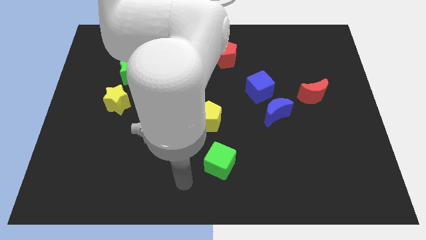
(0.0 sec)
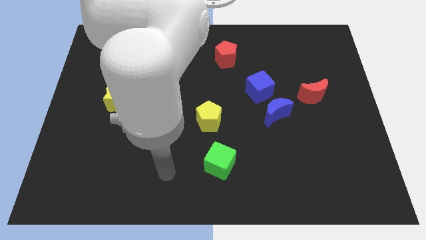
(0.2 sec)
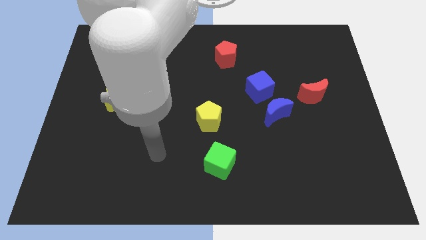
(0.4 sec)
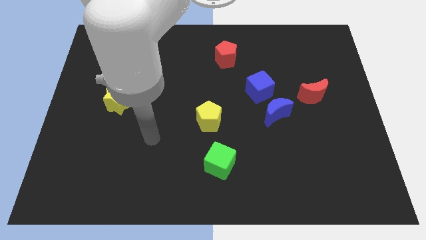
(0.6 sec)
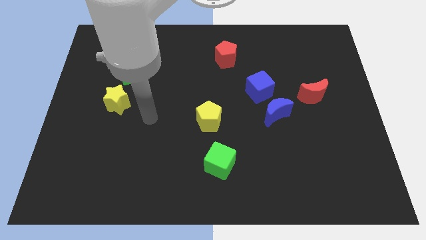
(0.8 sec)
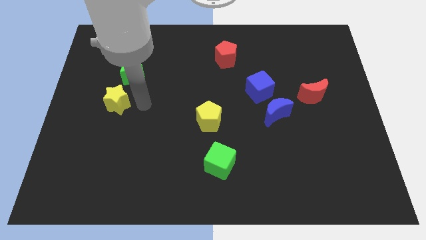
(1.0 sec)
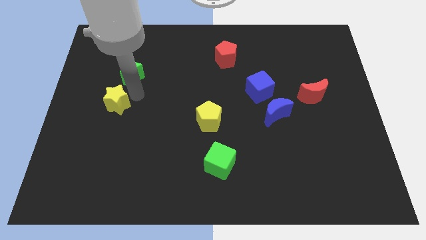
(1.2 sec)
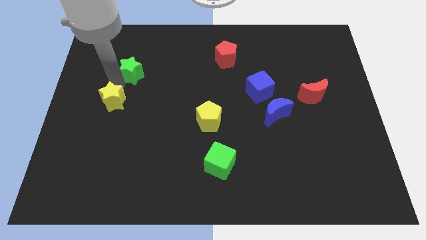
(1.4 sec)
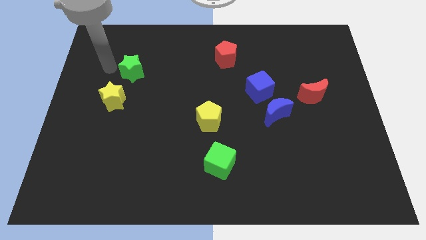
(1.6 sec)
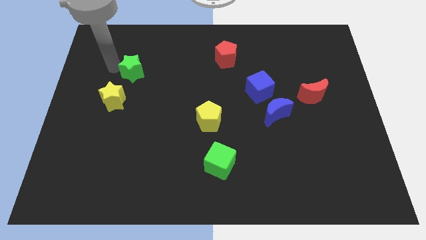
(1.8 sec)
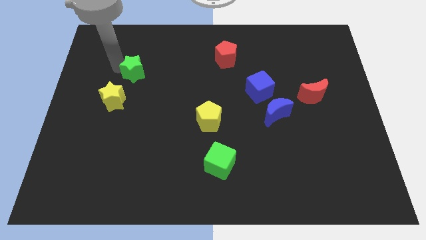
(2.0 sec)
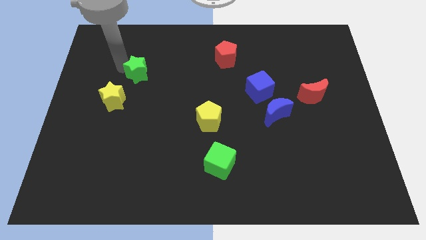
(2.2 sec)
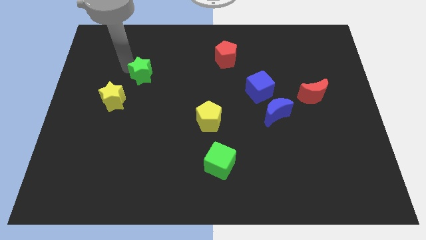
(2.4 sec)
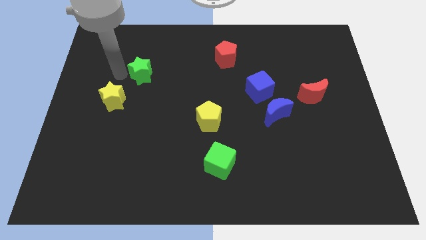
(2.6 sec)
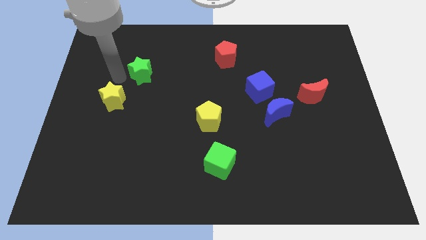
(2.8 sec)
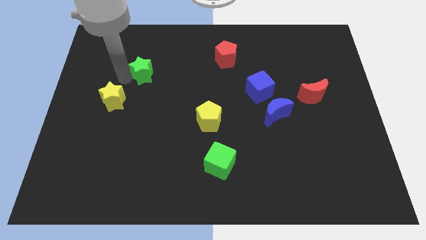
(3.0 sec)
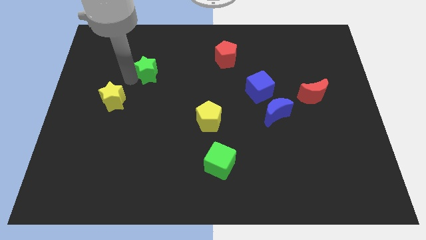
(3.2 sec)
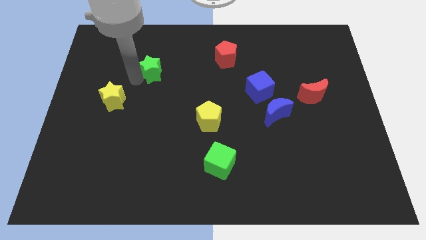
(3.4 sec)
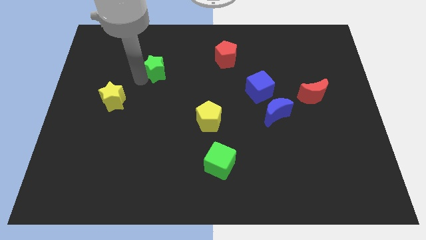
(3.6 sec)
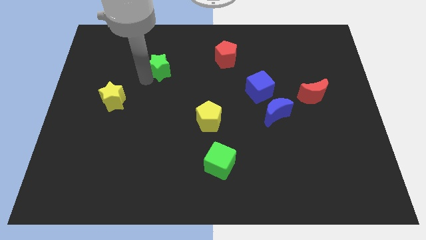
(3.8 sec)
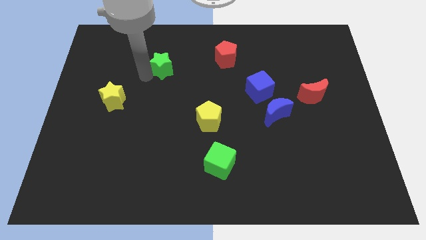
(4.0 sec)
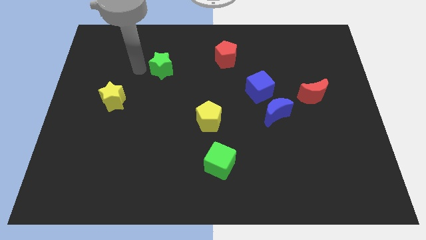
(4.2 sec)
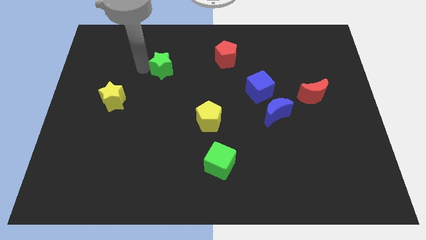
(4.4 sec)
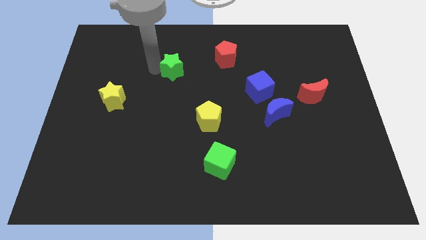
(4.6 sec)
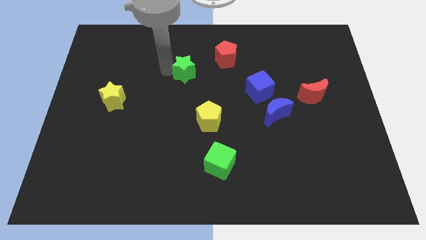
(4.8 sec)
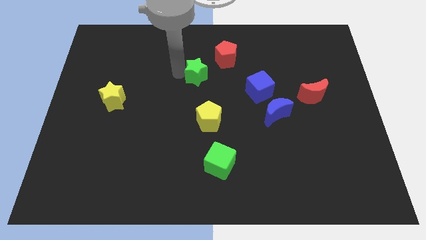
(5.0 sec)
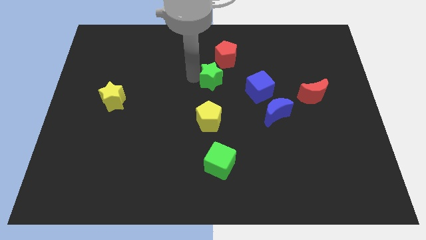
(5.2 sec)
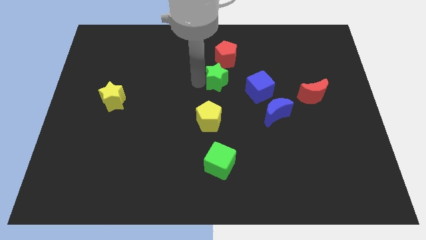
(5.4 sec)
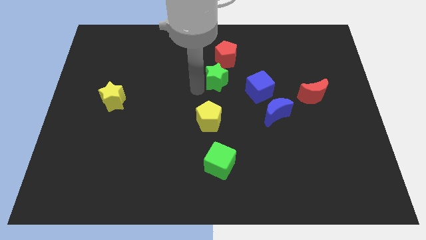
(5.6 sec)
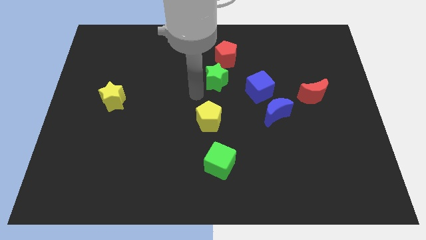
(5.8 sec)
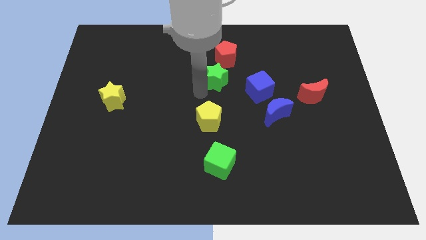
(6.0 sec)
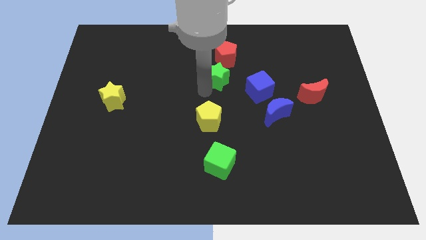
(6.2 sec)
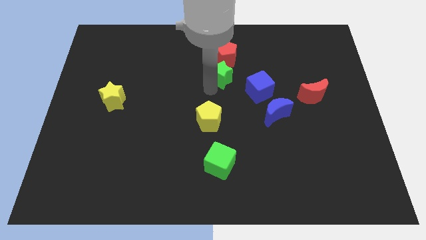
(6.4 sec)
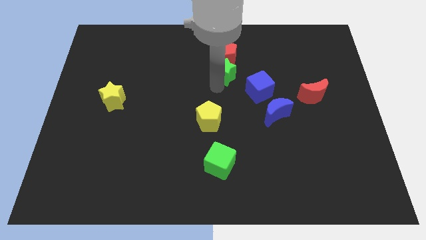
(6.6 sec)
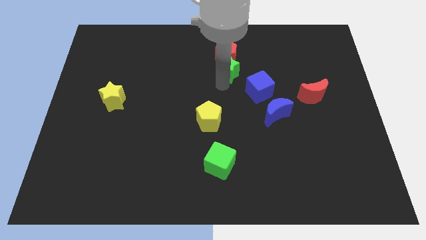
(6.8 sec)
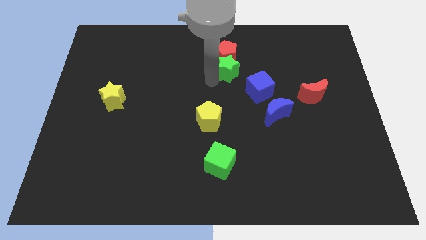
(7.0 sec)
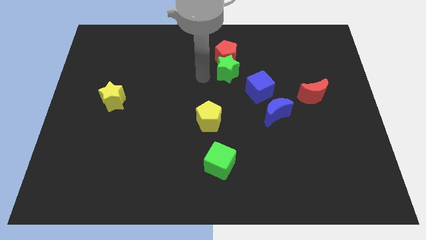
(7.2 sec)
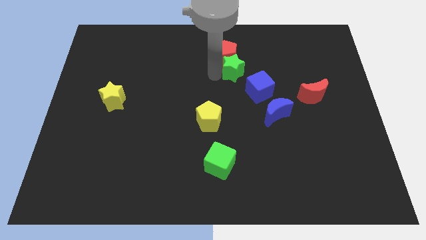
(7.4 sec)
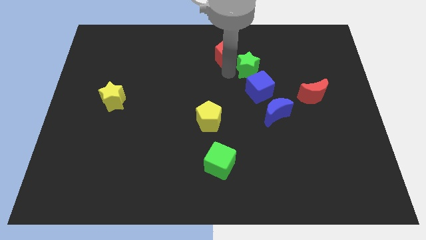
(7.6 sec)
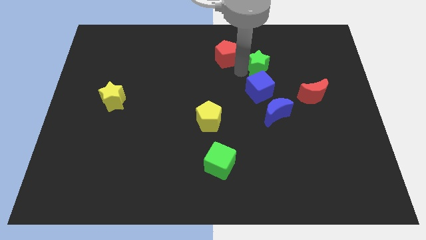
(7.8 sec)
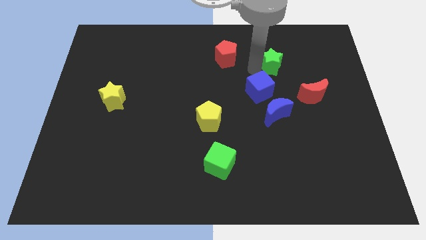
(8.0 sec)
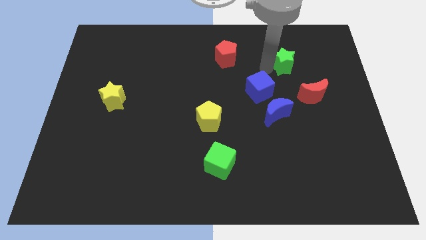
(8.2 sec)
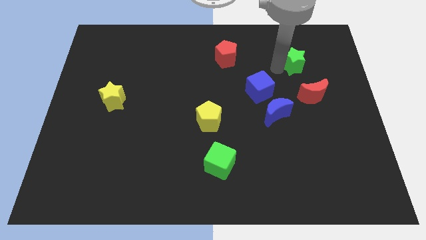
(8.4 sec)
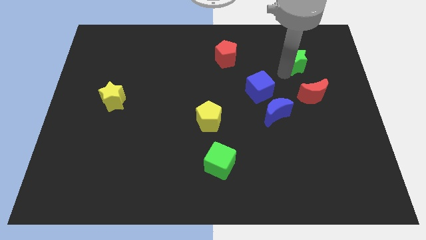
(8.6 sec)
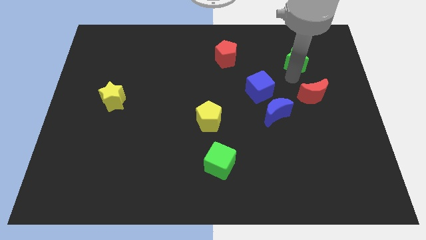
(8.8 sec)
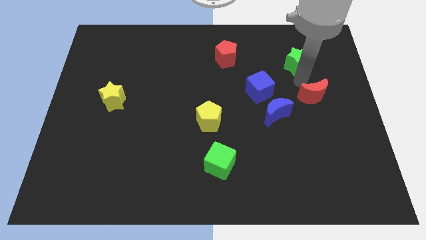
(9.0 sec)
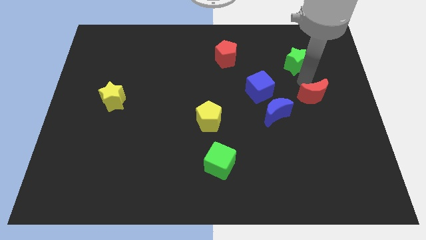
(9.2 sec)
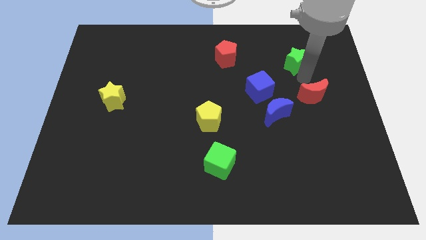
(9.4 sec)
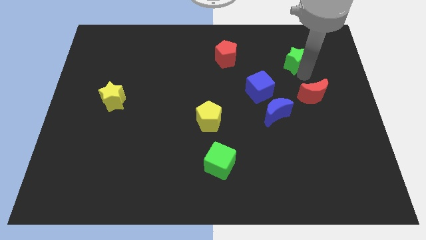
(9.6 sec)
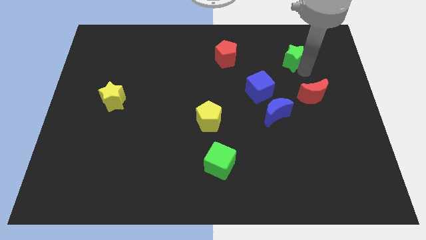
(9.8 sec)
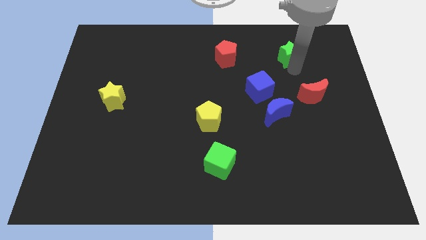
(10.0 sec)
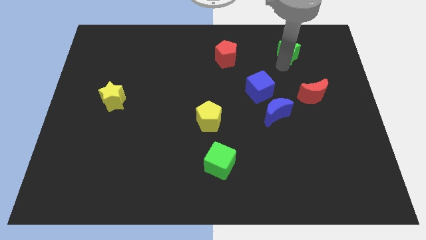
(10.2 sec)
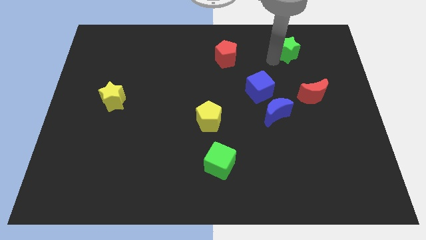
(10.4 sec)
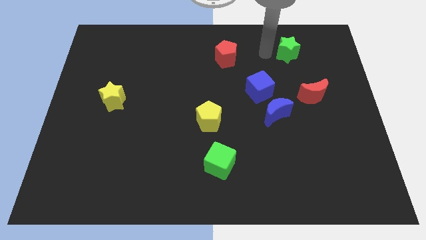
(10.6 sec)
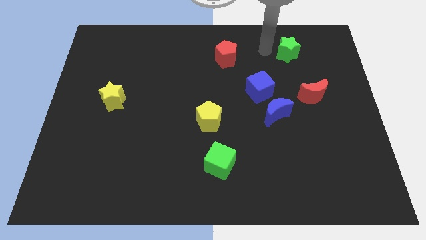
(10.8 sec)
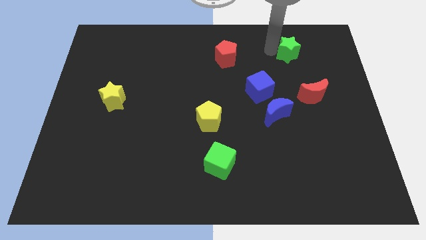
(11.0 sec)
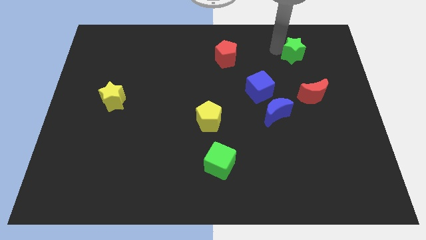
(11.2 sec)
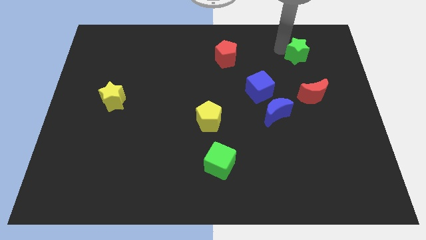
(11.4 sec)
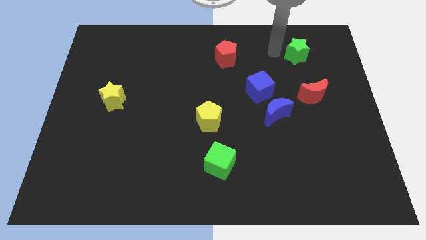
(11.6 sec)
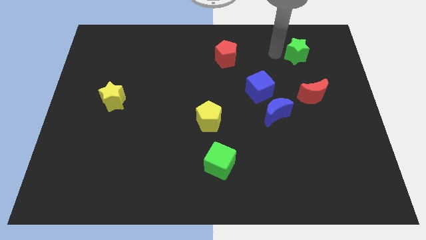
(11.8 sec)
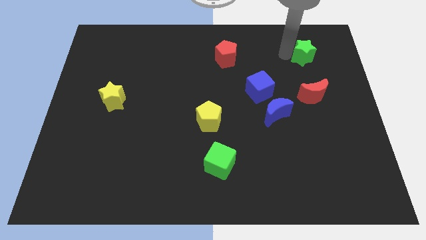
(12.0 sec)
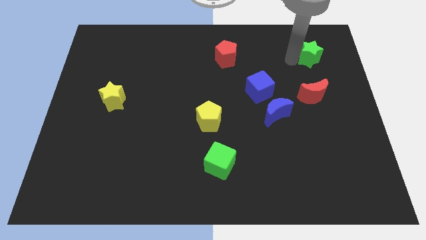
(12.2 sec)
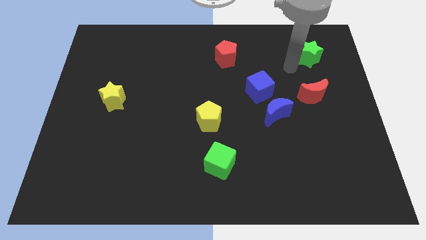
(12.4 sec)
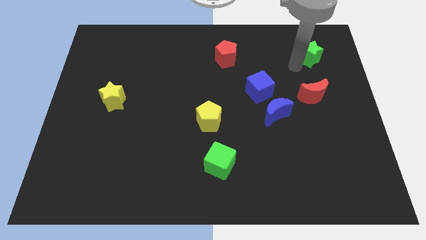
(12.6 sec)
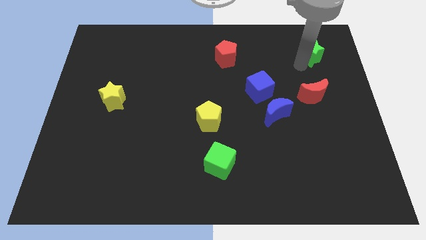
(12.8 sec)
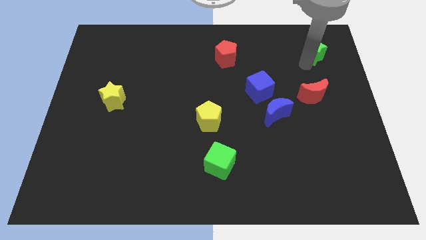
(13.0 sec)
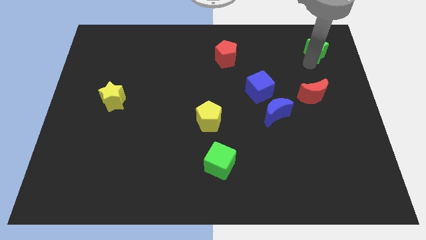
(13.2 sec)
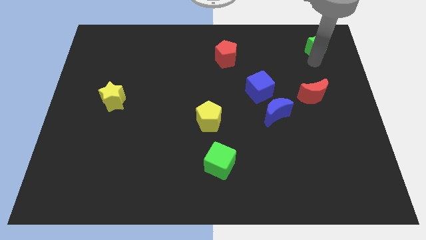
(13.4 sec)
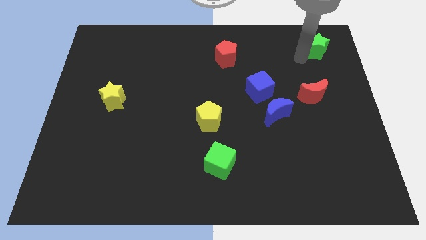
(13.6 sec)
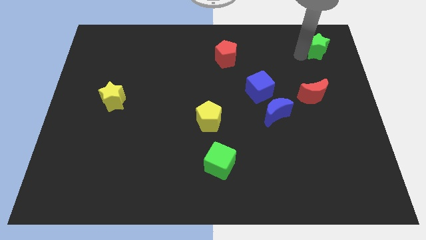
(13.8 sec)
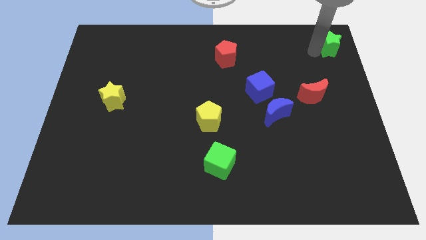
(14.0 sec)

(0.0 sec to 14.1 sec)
move the green star to the top right
